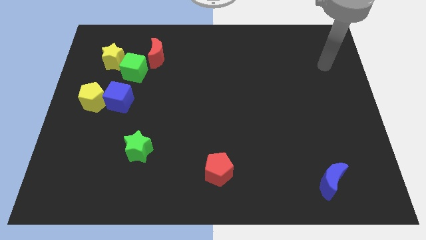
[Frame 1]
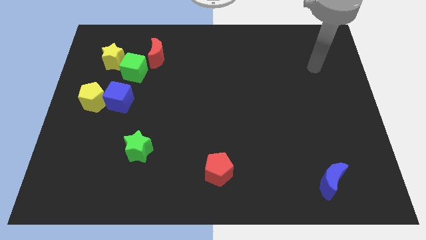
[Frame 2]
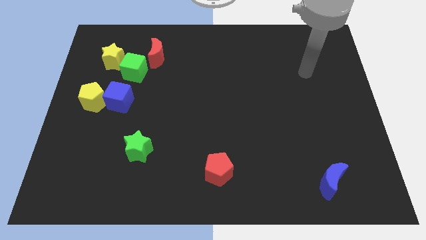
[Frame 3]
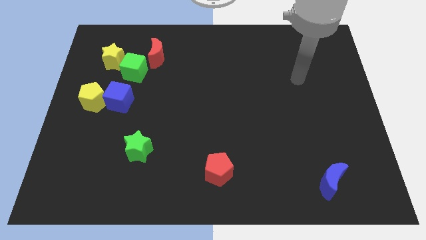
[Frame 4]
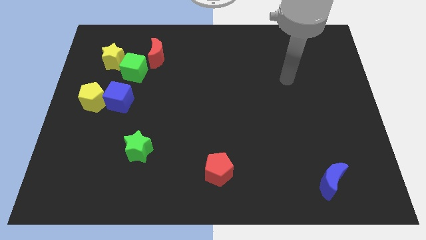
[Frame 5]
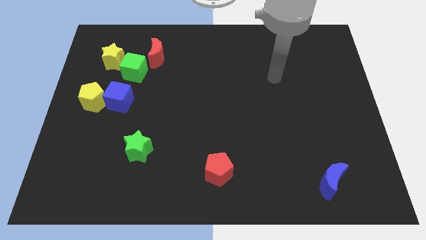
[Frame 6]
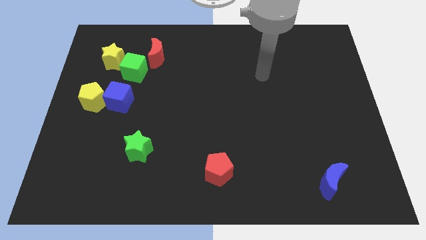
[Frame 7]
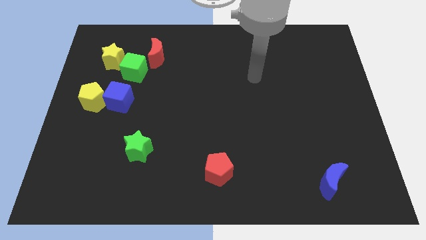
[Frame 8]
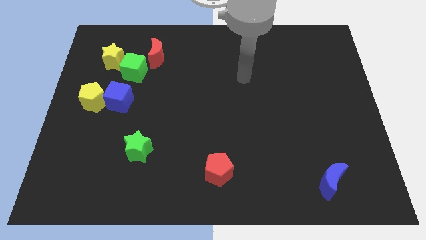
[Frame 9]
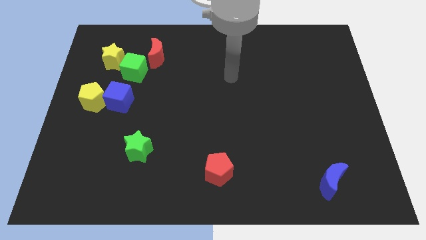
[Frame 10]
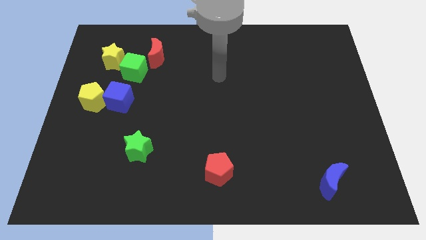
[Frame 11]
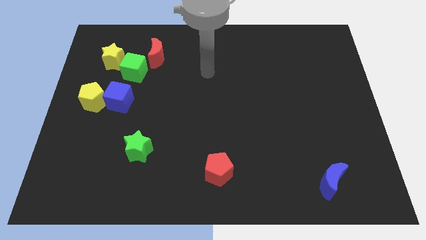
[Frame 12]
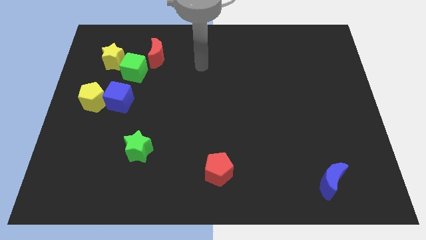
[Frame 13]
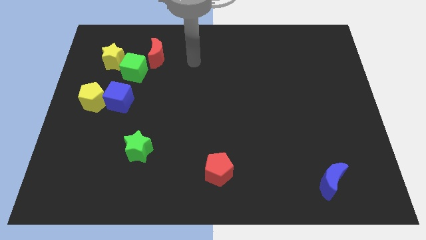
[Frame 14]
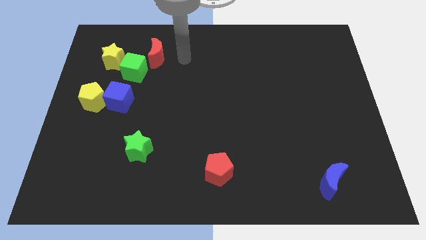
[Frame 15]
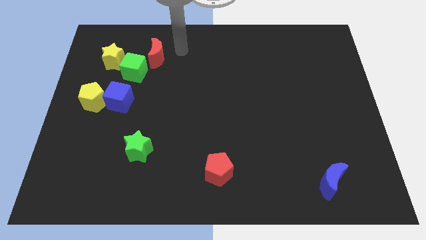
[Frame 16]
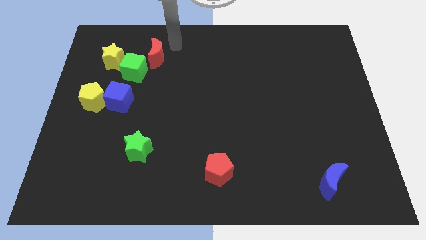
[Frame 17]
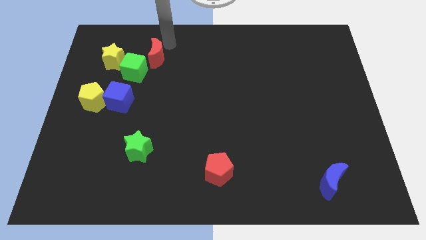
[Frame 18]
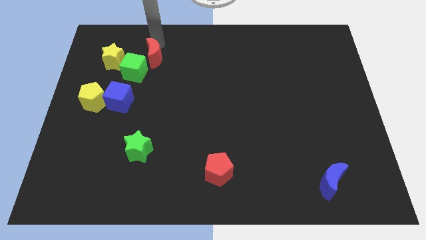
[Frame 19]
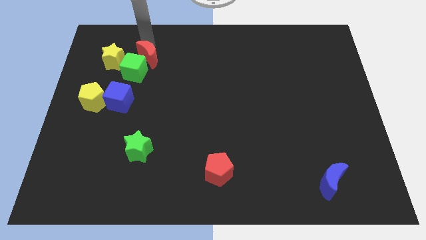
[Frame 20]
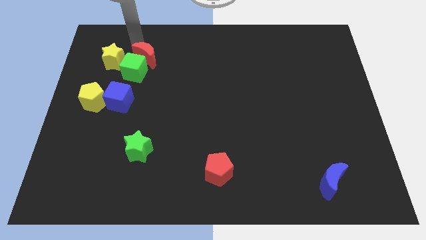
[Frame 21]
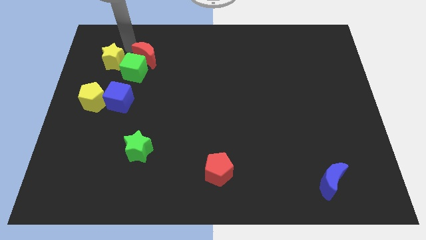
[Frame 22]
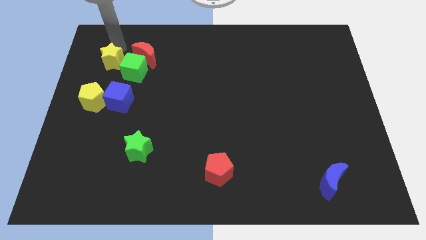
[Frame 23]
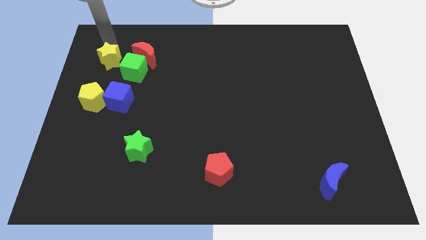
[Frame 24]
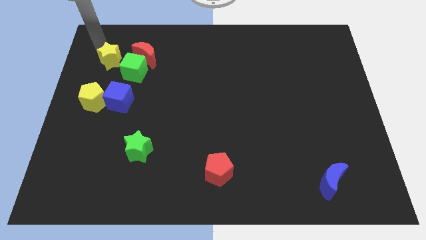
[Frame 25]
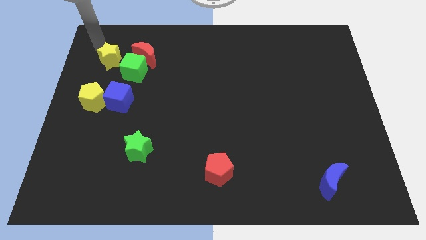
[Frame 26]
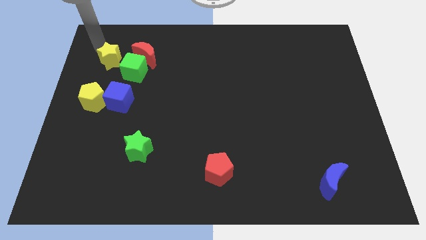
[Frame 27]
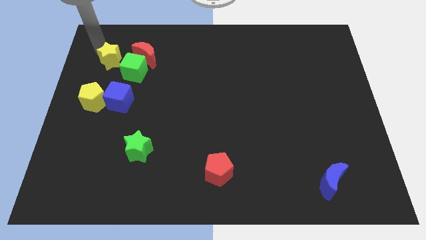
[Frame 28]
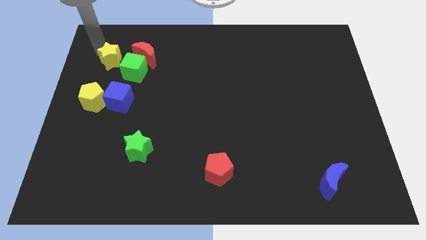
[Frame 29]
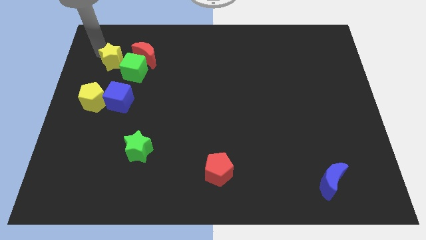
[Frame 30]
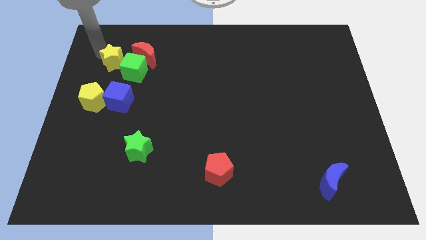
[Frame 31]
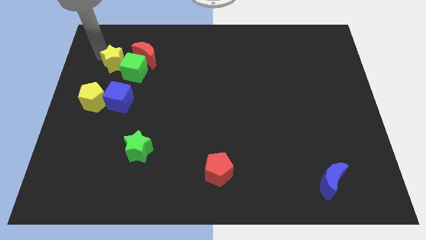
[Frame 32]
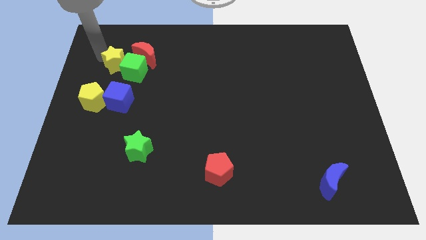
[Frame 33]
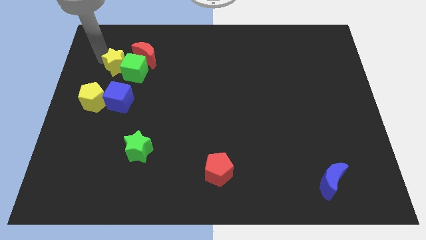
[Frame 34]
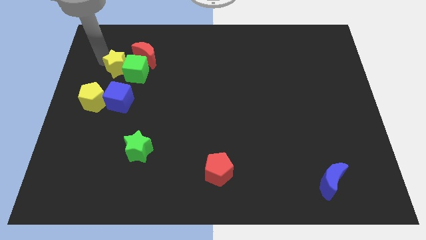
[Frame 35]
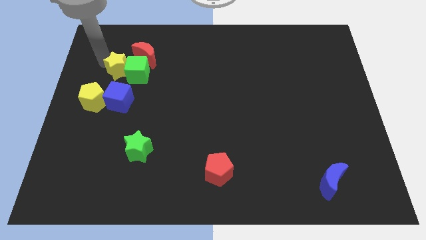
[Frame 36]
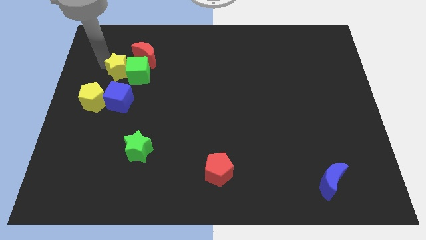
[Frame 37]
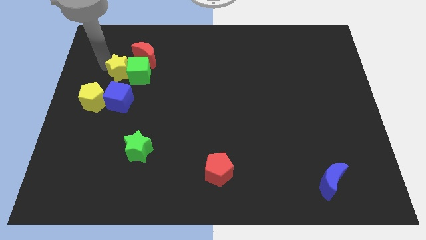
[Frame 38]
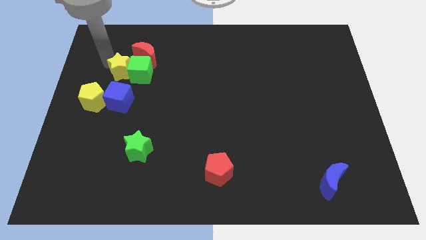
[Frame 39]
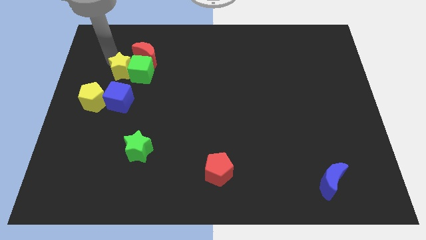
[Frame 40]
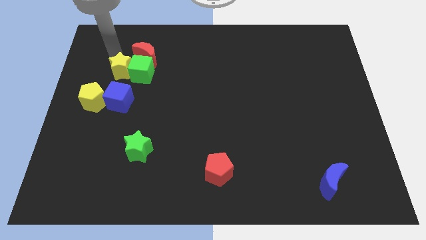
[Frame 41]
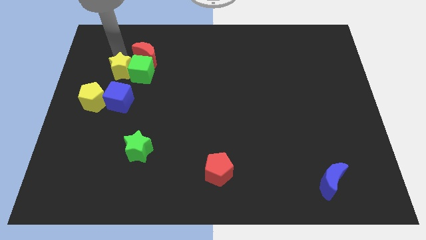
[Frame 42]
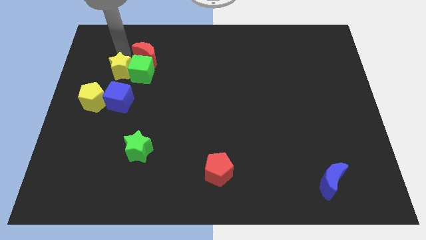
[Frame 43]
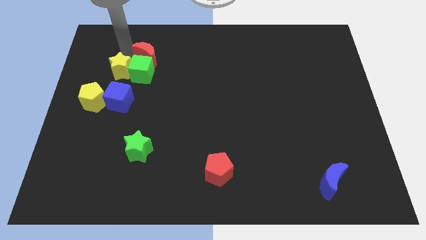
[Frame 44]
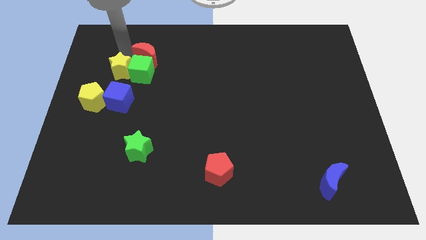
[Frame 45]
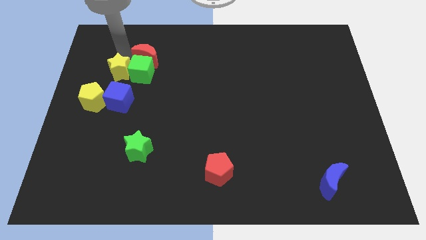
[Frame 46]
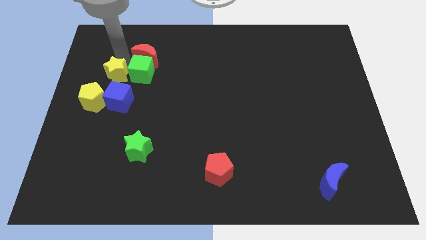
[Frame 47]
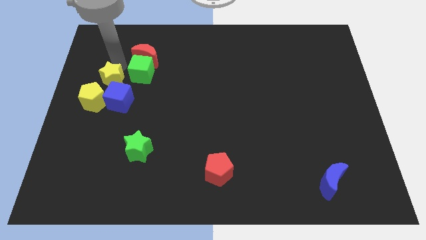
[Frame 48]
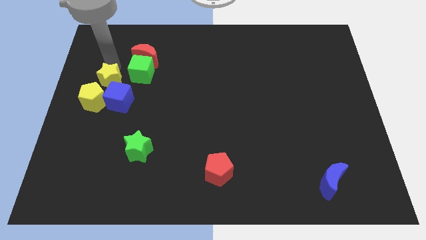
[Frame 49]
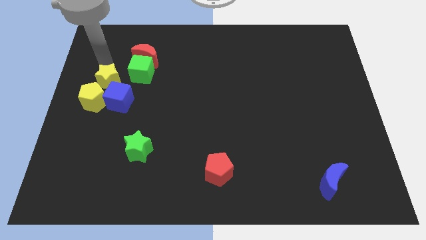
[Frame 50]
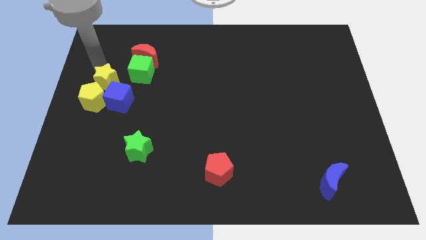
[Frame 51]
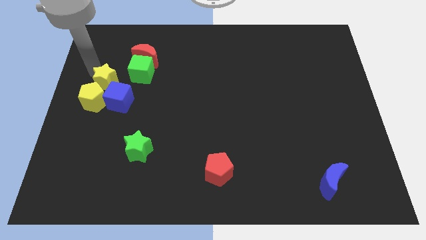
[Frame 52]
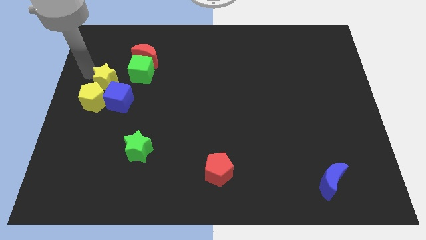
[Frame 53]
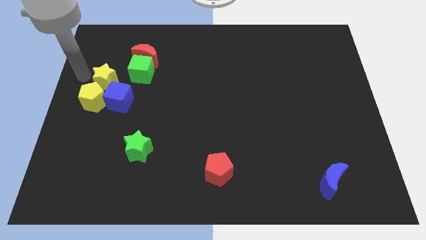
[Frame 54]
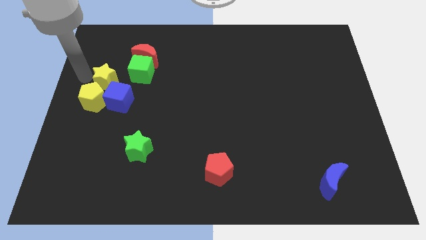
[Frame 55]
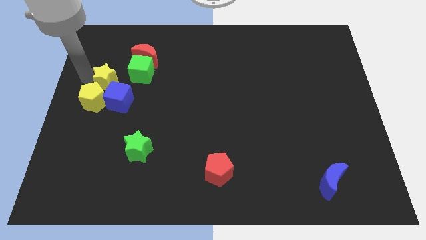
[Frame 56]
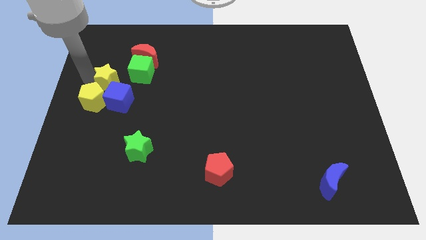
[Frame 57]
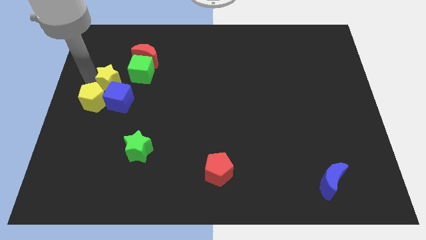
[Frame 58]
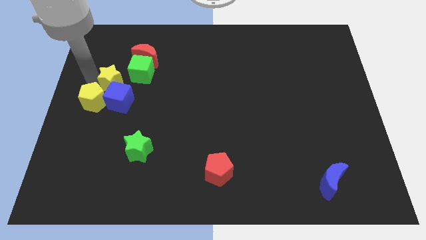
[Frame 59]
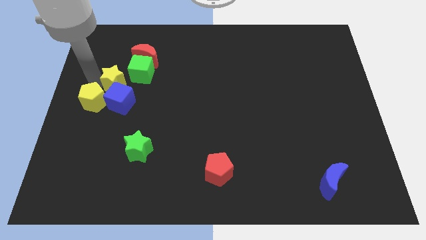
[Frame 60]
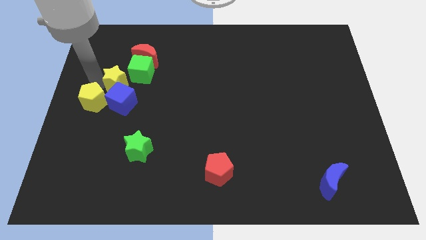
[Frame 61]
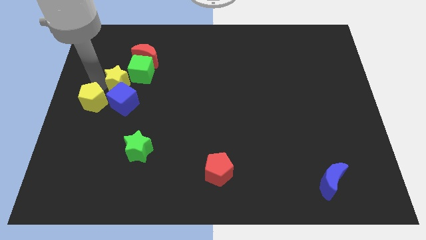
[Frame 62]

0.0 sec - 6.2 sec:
slightly slide the yellow star diagonally downwards and to the right

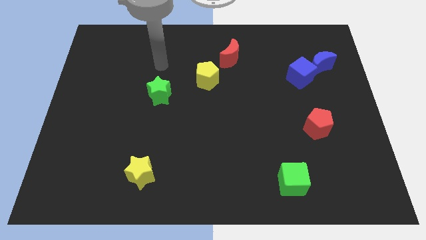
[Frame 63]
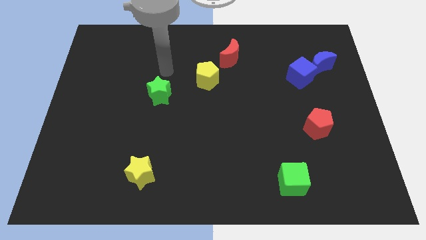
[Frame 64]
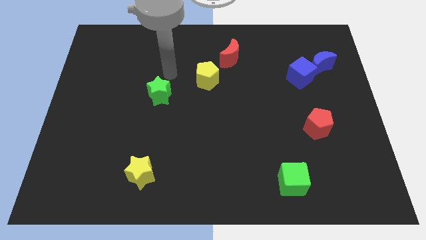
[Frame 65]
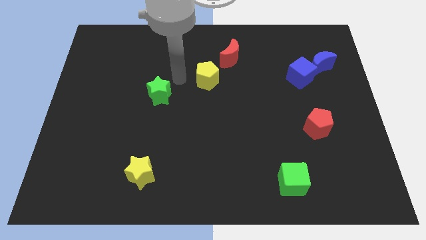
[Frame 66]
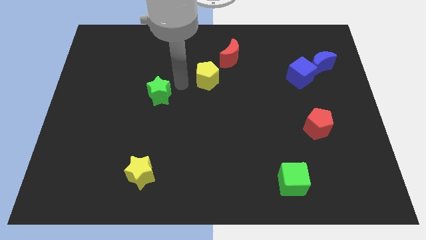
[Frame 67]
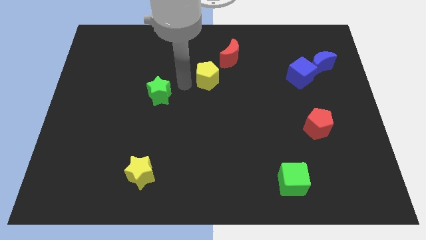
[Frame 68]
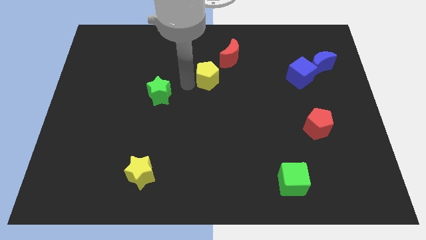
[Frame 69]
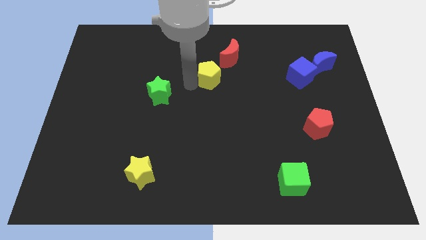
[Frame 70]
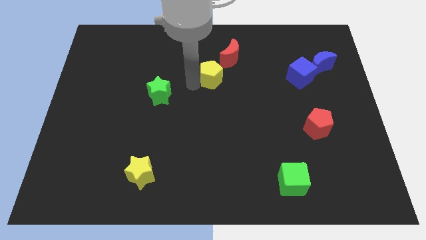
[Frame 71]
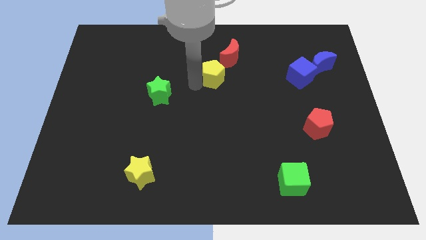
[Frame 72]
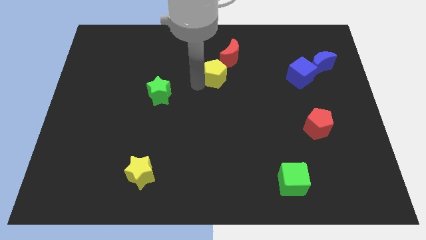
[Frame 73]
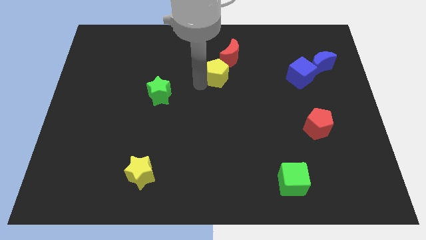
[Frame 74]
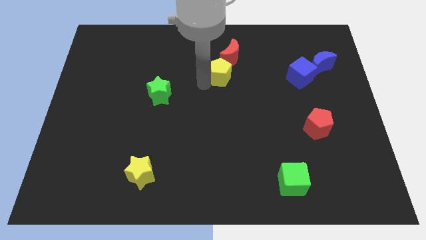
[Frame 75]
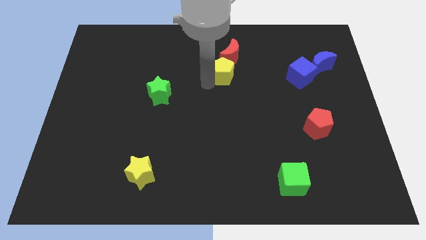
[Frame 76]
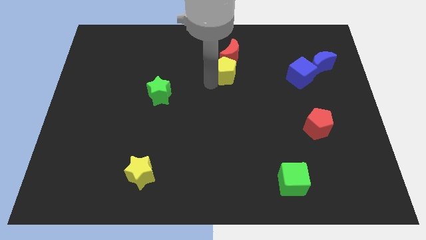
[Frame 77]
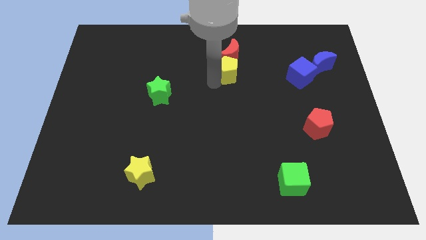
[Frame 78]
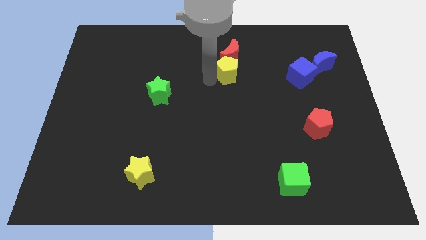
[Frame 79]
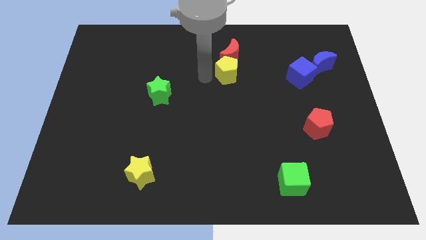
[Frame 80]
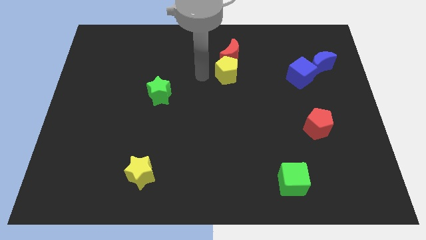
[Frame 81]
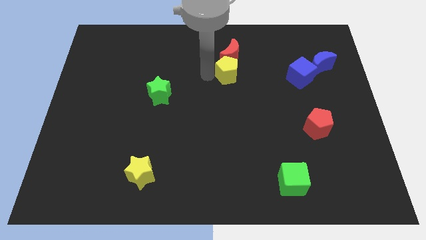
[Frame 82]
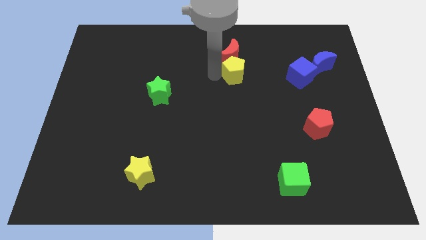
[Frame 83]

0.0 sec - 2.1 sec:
push the yellow pentagon somewhat right
